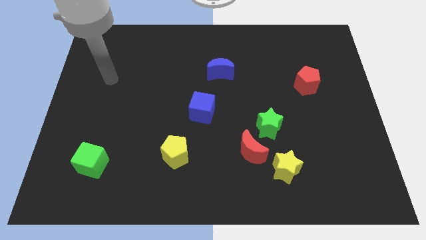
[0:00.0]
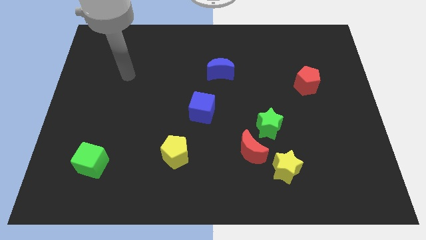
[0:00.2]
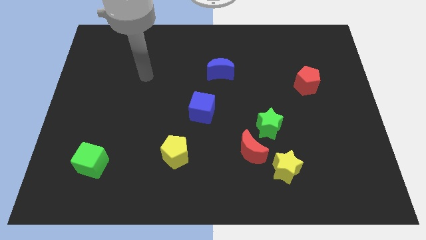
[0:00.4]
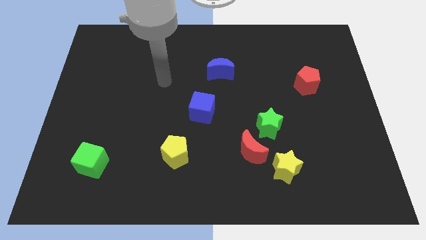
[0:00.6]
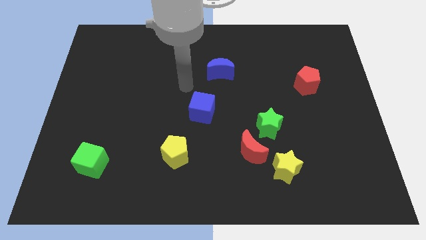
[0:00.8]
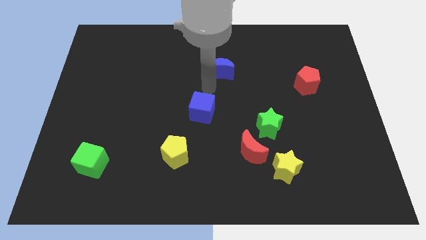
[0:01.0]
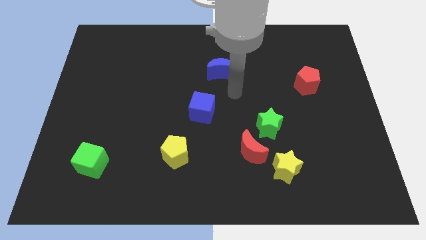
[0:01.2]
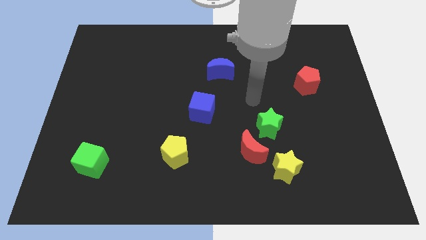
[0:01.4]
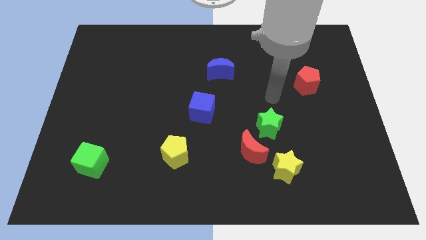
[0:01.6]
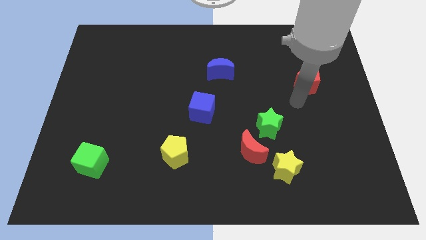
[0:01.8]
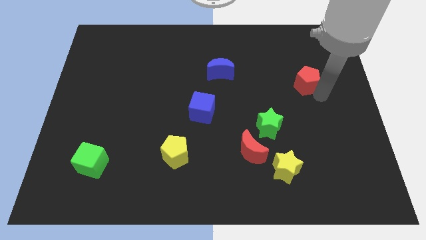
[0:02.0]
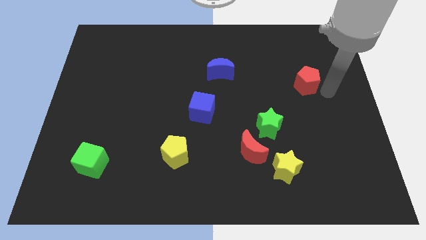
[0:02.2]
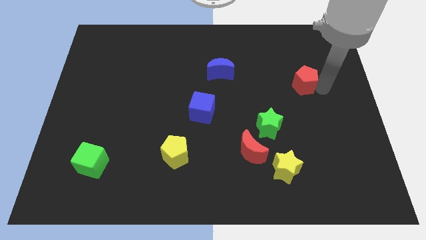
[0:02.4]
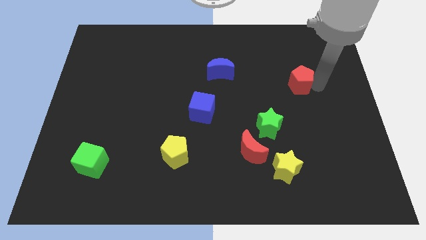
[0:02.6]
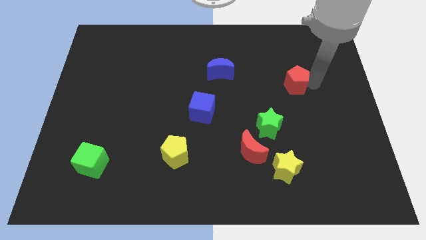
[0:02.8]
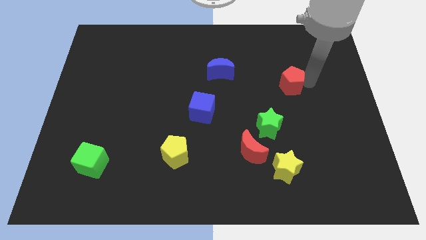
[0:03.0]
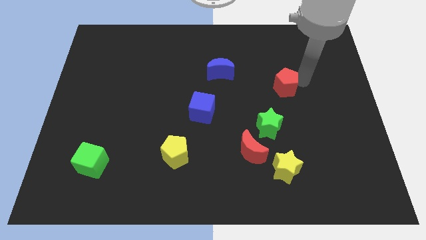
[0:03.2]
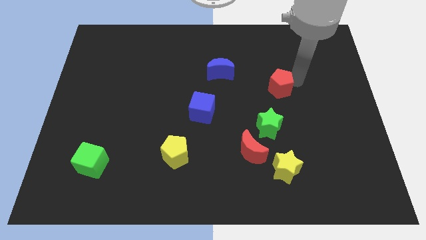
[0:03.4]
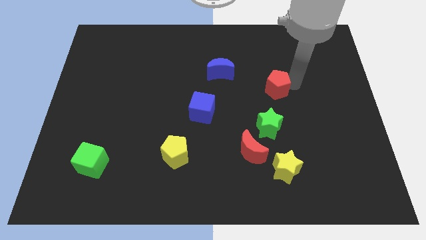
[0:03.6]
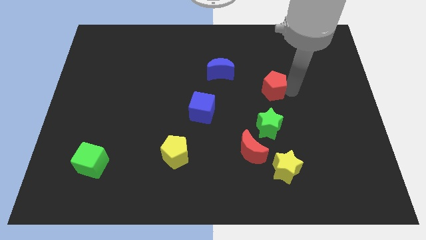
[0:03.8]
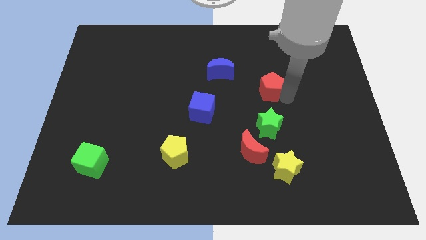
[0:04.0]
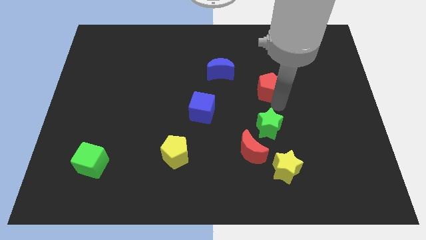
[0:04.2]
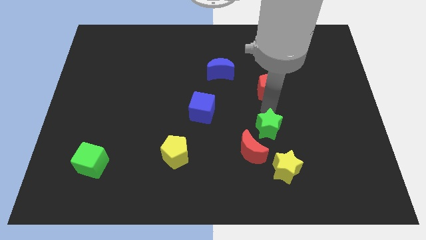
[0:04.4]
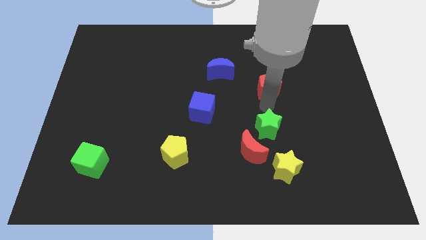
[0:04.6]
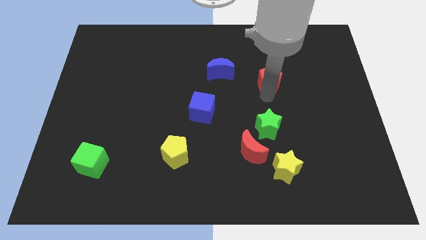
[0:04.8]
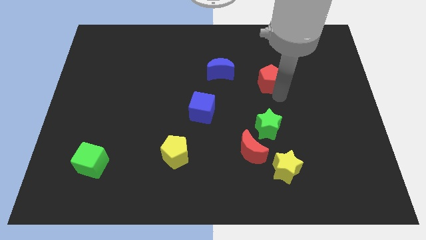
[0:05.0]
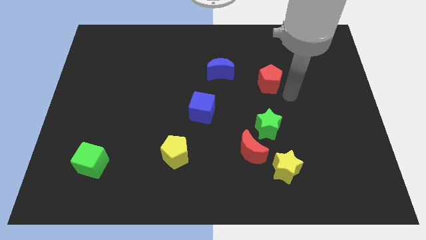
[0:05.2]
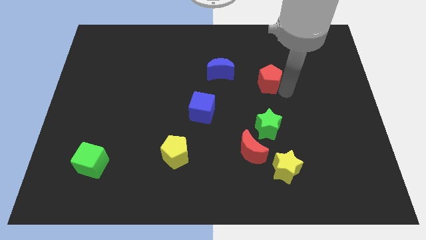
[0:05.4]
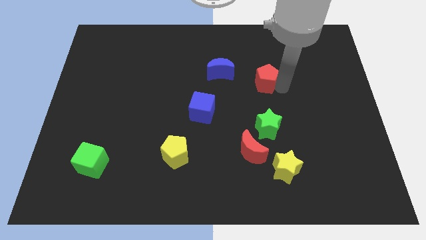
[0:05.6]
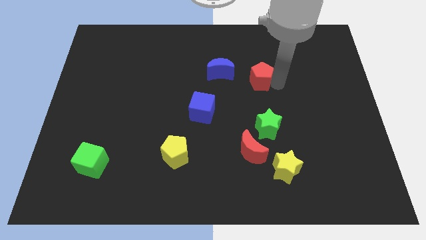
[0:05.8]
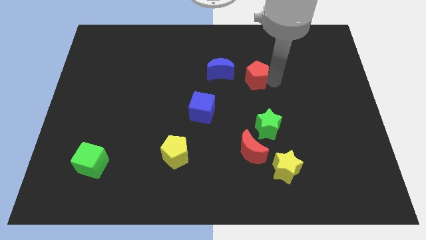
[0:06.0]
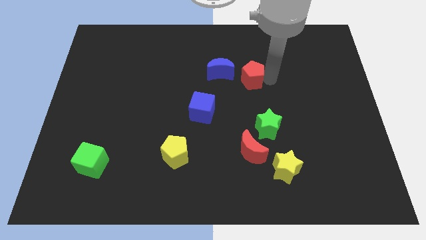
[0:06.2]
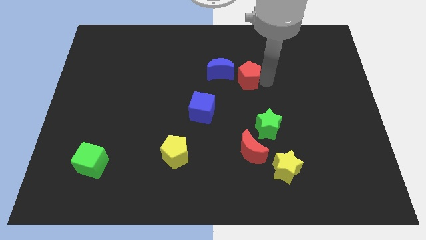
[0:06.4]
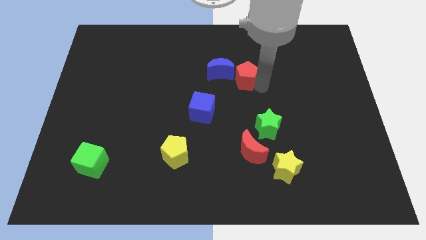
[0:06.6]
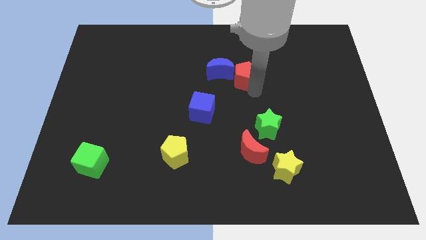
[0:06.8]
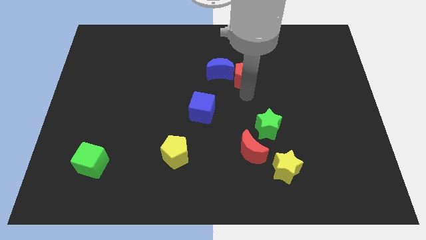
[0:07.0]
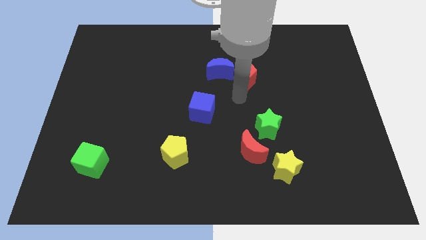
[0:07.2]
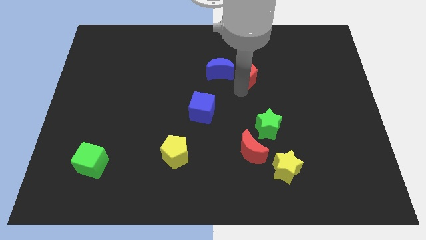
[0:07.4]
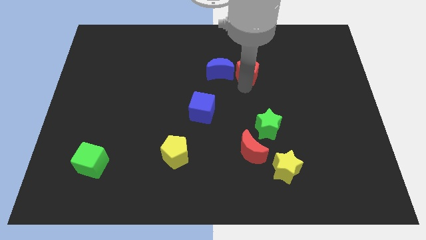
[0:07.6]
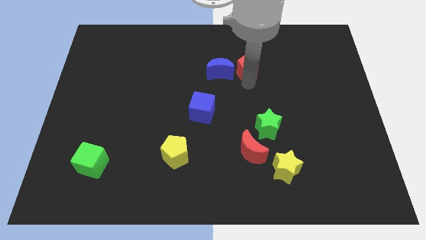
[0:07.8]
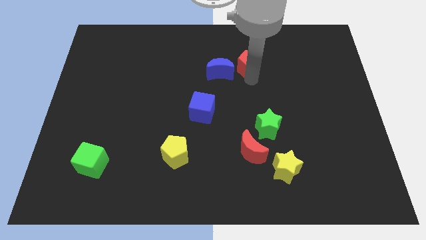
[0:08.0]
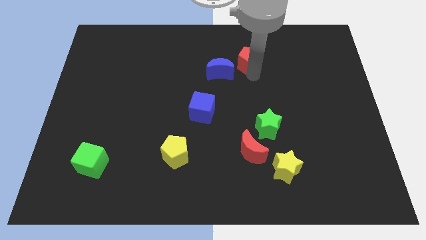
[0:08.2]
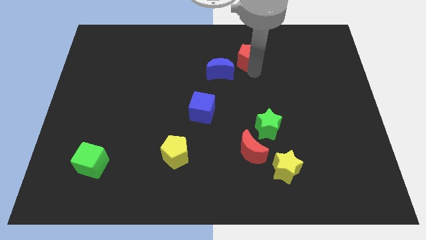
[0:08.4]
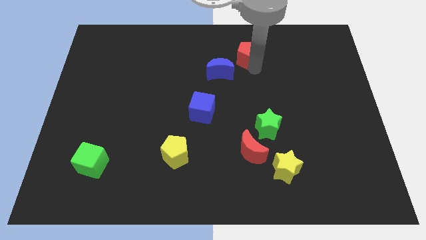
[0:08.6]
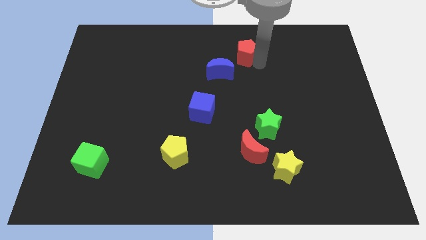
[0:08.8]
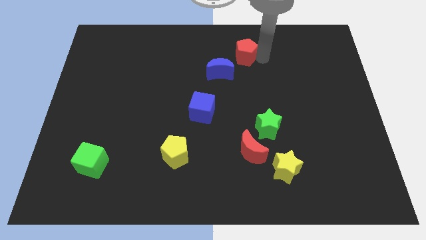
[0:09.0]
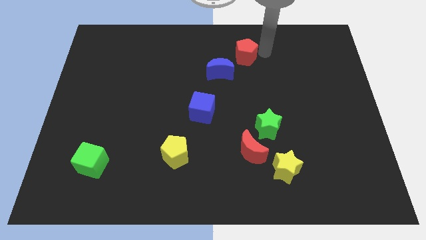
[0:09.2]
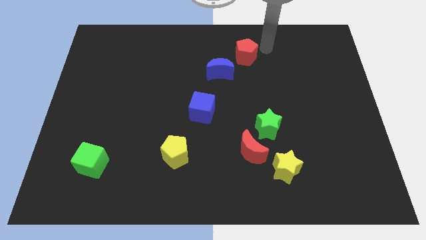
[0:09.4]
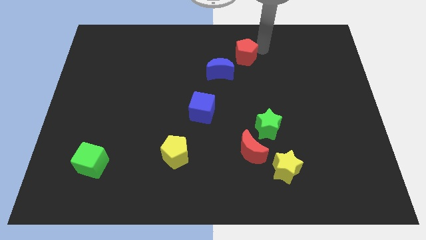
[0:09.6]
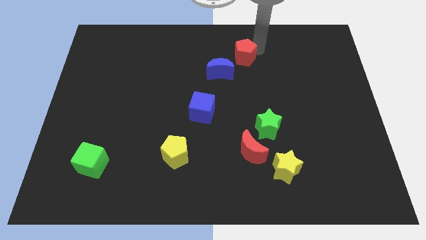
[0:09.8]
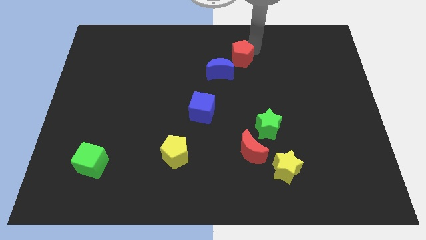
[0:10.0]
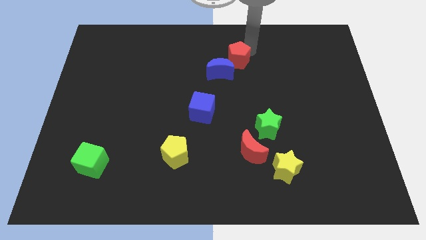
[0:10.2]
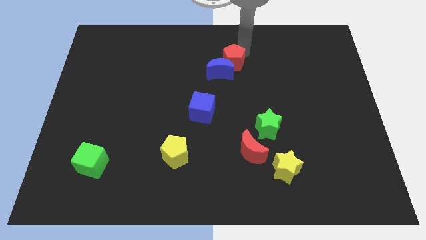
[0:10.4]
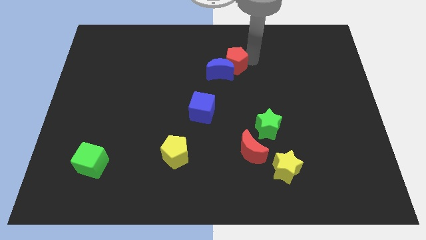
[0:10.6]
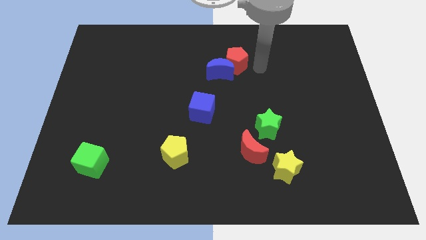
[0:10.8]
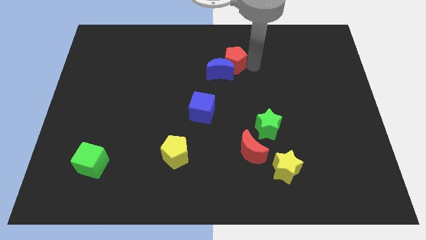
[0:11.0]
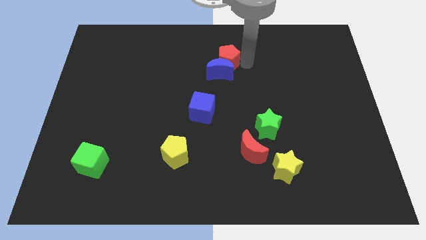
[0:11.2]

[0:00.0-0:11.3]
slide the red pentagon to the top left of the blue moon

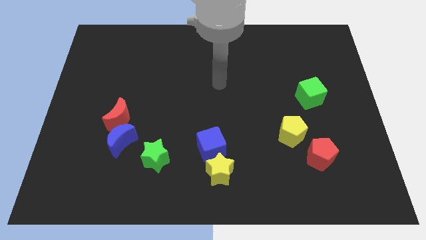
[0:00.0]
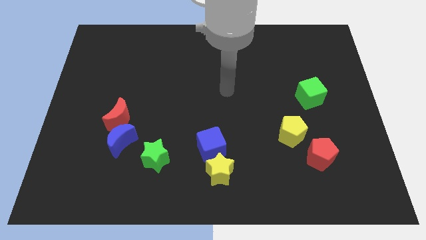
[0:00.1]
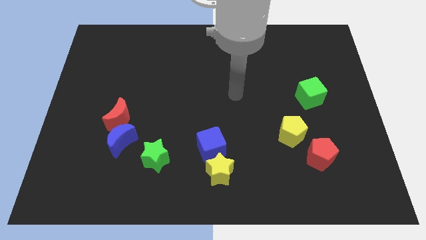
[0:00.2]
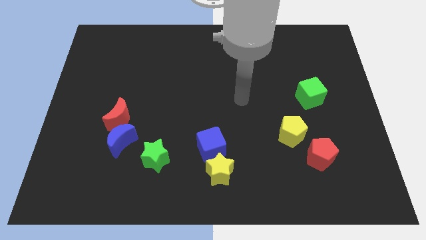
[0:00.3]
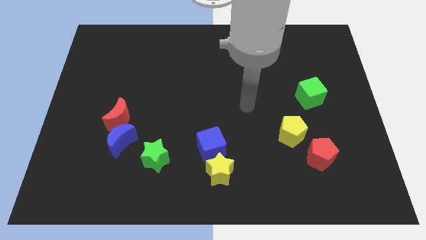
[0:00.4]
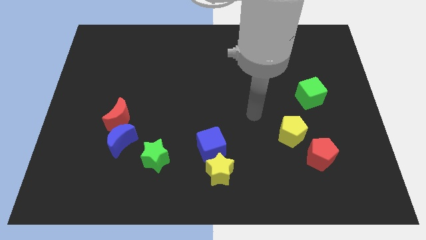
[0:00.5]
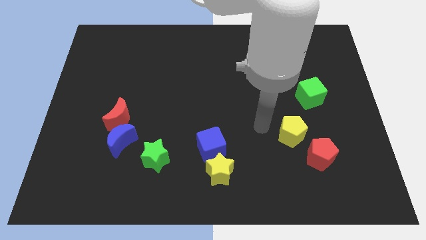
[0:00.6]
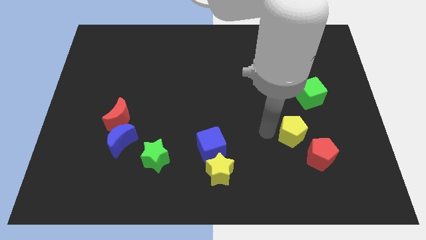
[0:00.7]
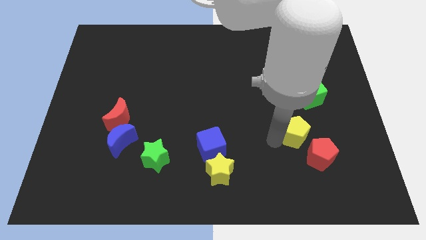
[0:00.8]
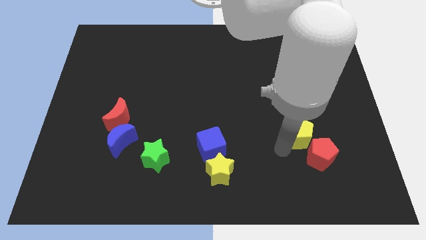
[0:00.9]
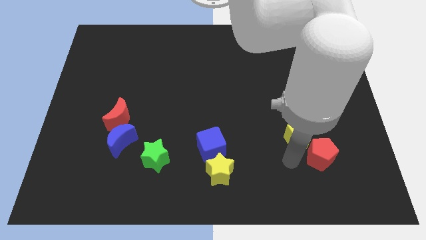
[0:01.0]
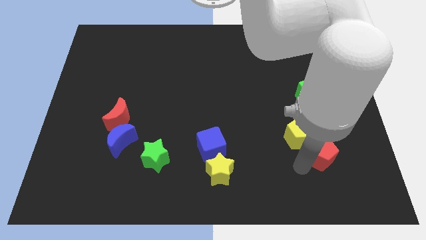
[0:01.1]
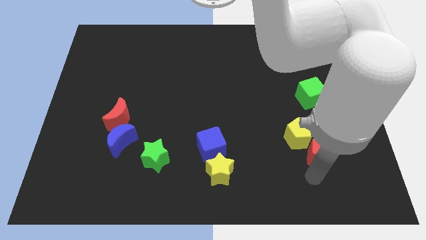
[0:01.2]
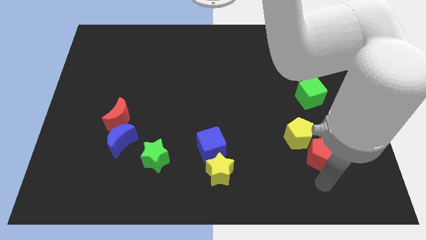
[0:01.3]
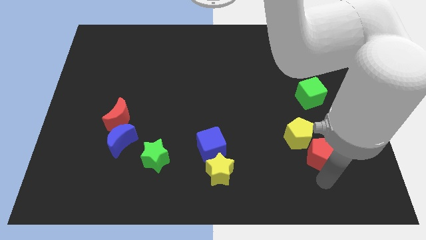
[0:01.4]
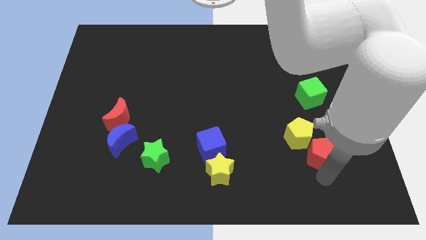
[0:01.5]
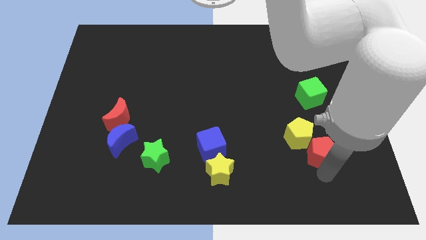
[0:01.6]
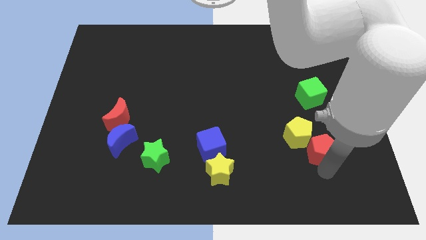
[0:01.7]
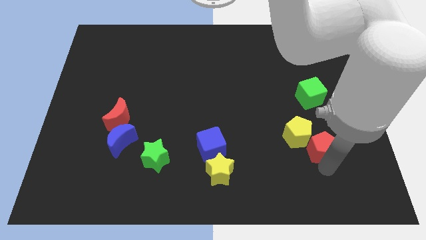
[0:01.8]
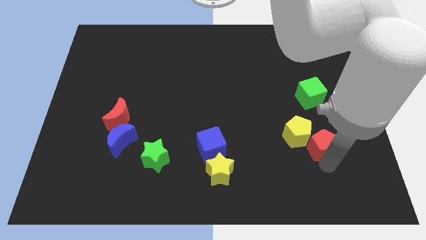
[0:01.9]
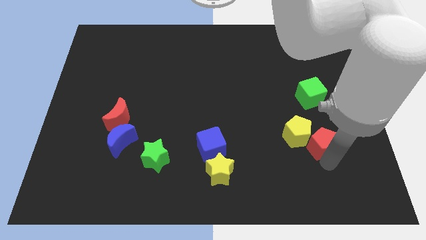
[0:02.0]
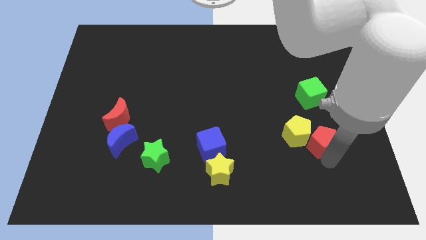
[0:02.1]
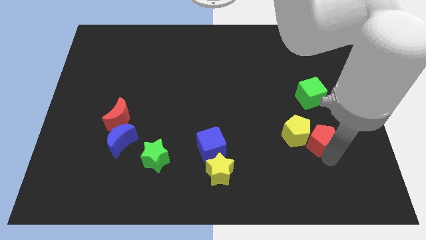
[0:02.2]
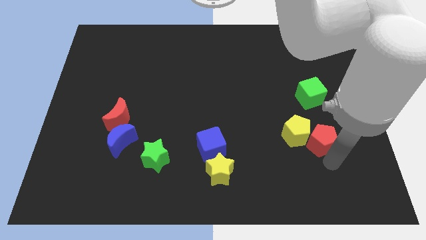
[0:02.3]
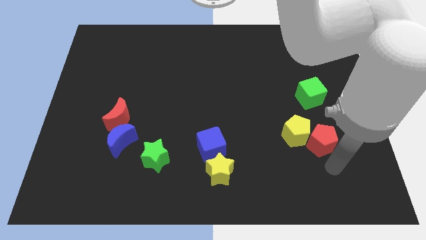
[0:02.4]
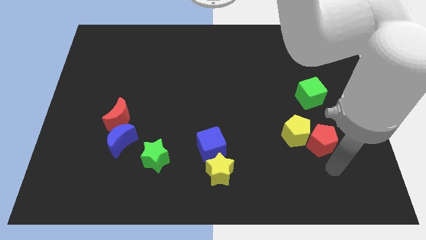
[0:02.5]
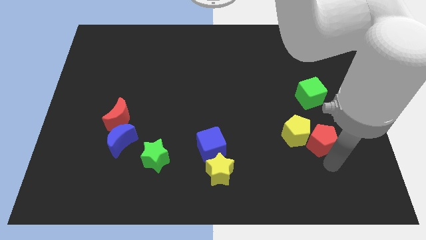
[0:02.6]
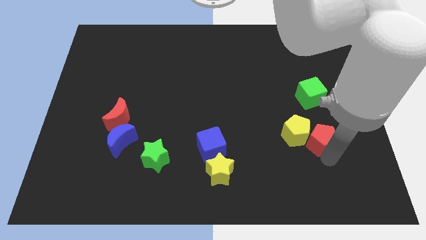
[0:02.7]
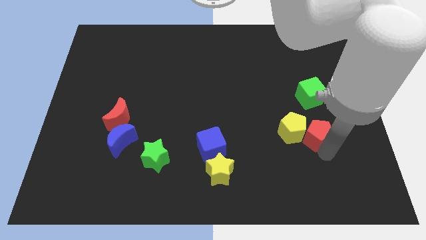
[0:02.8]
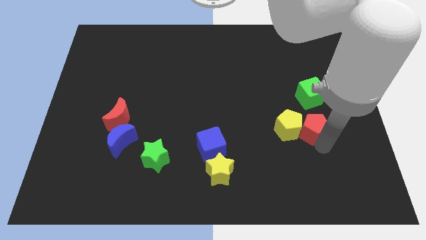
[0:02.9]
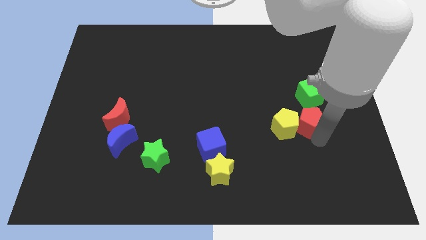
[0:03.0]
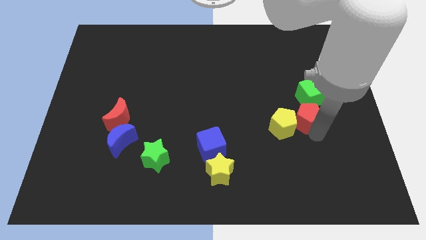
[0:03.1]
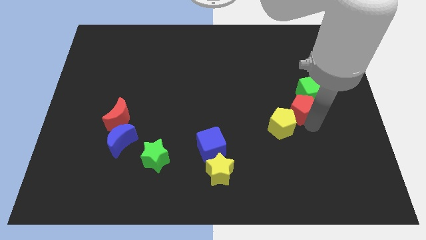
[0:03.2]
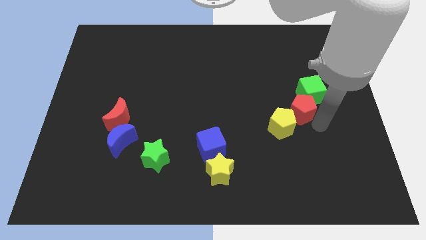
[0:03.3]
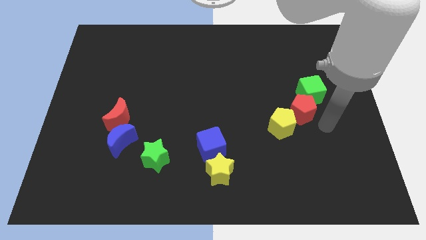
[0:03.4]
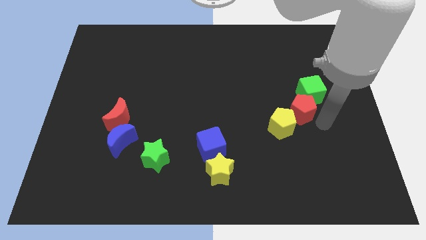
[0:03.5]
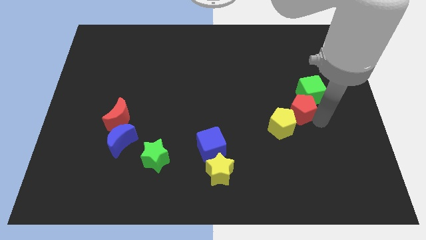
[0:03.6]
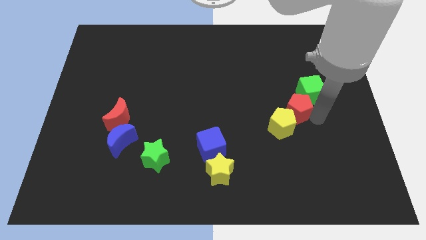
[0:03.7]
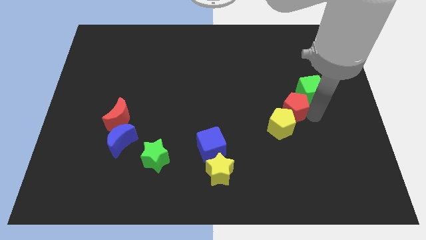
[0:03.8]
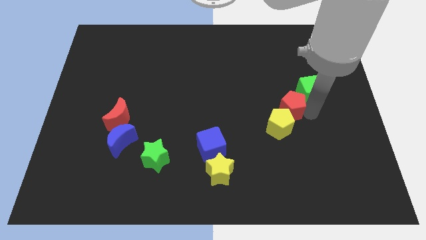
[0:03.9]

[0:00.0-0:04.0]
put the red pentagon left of the green cube
